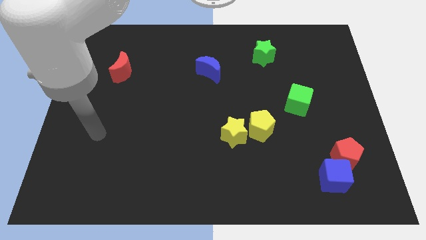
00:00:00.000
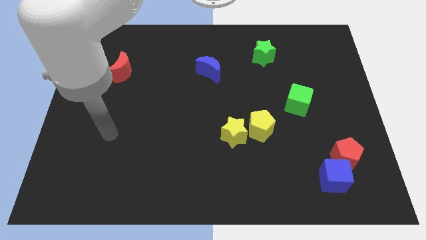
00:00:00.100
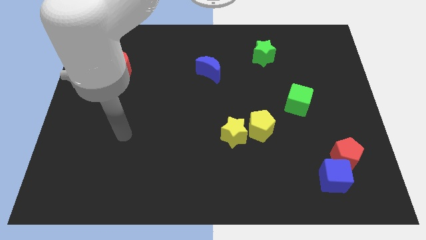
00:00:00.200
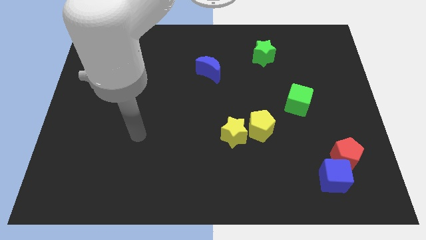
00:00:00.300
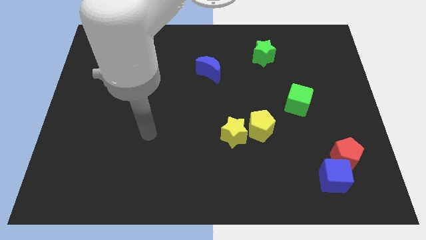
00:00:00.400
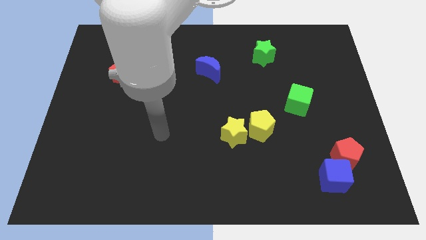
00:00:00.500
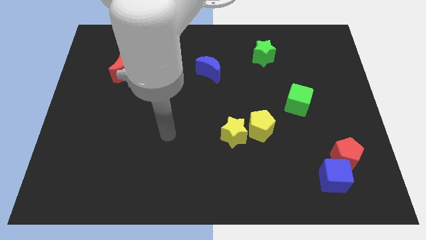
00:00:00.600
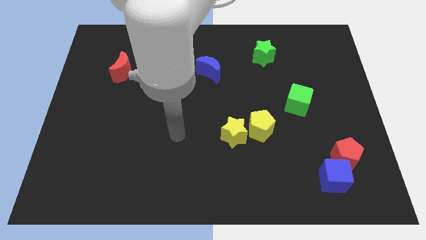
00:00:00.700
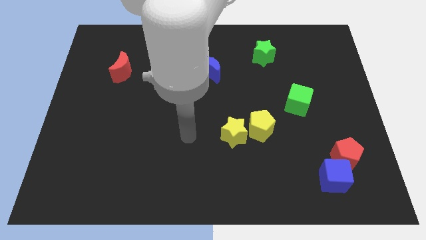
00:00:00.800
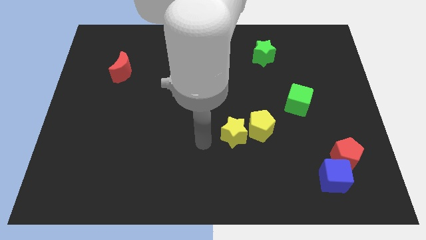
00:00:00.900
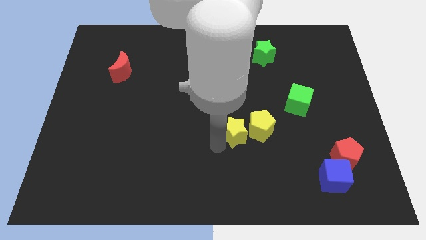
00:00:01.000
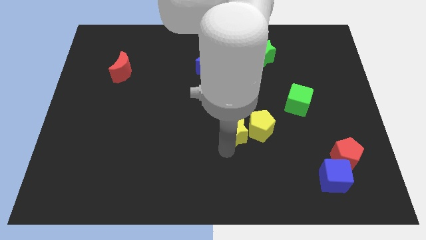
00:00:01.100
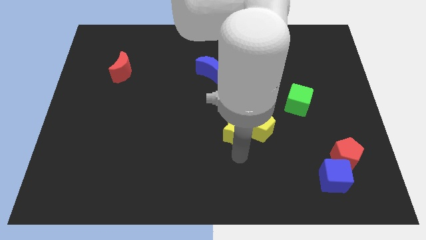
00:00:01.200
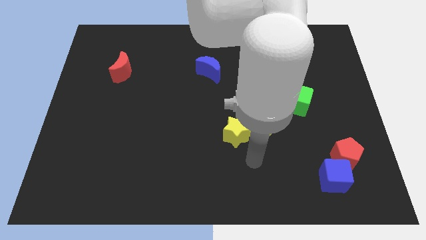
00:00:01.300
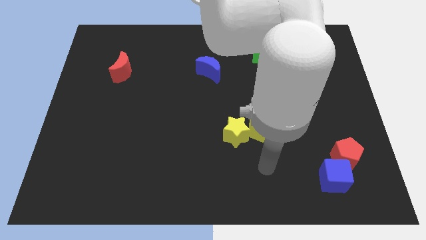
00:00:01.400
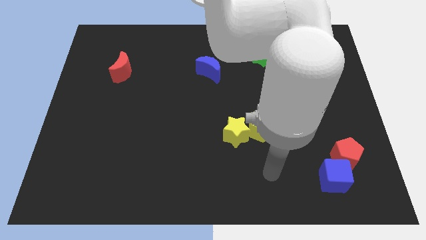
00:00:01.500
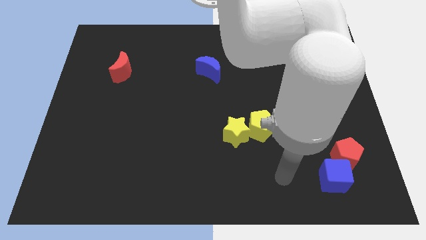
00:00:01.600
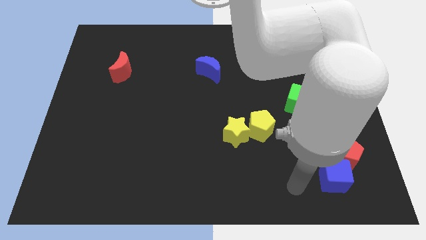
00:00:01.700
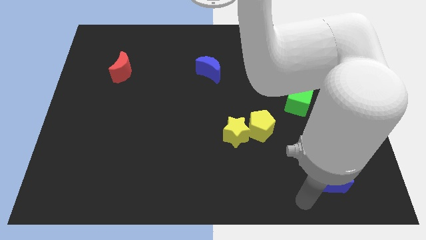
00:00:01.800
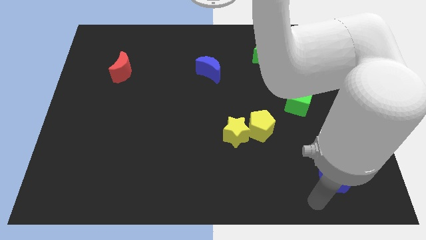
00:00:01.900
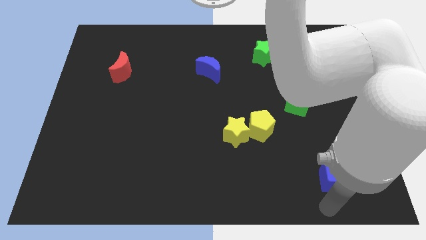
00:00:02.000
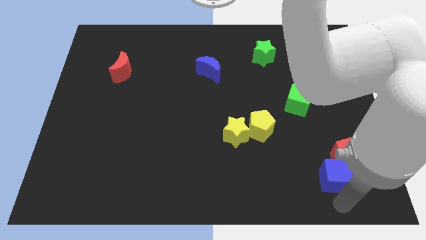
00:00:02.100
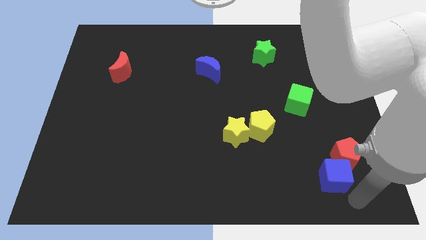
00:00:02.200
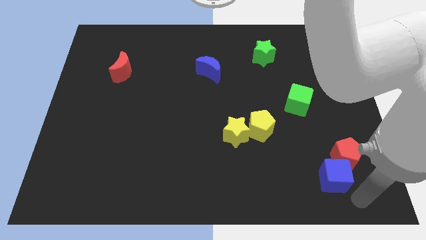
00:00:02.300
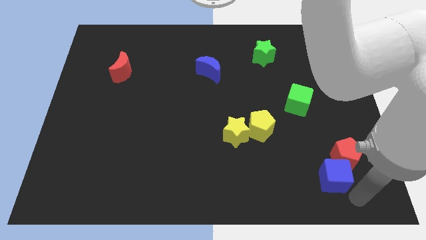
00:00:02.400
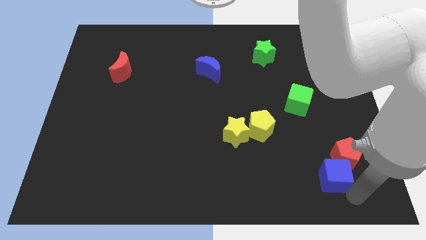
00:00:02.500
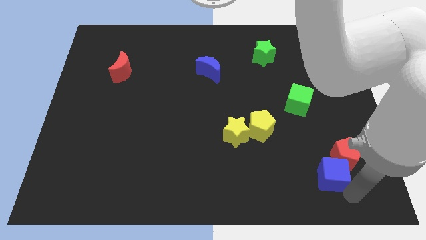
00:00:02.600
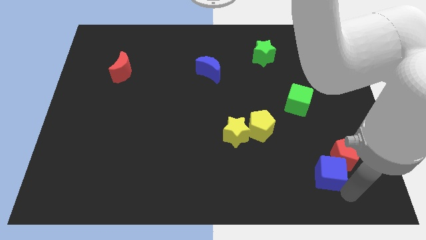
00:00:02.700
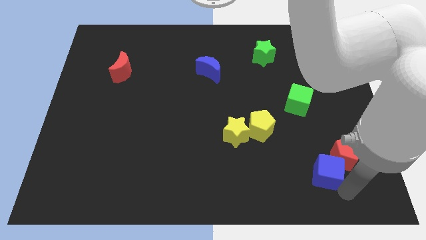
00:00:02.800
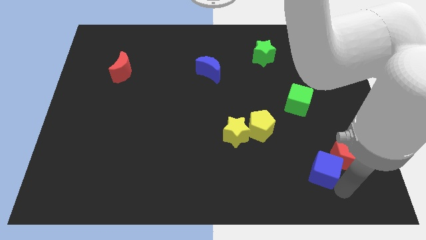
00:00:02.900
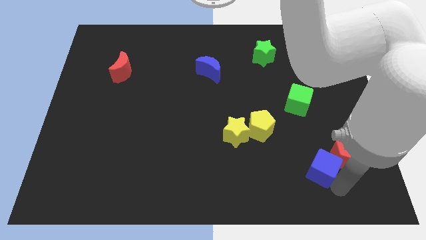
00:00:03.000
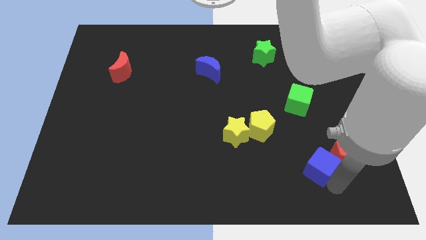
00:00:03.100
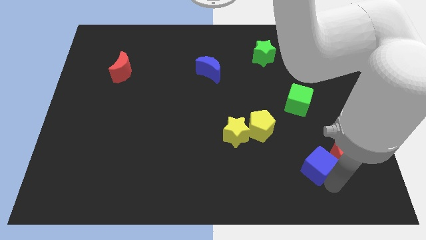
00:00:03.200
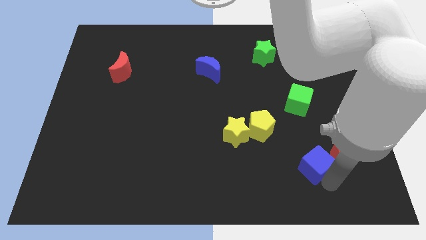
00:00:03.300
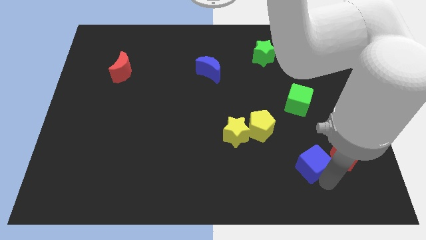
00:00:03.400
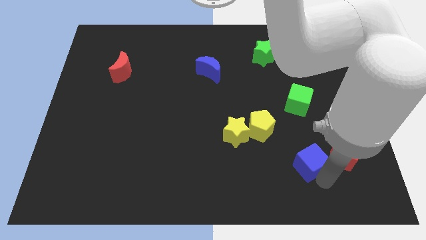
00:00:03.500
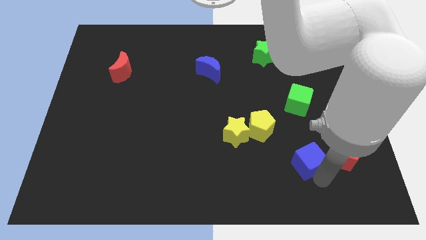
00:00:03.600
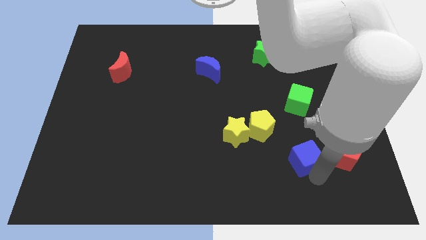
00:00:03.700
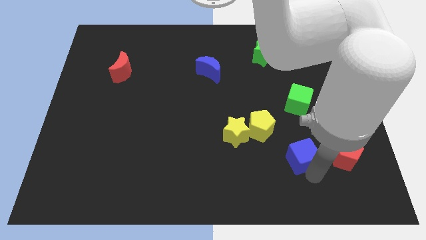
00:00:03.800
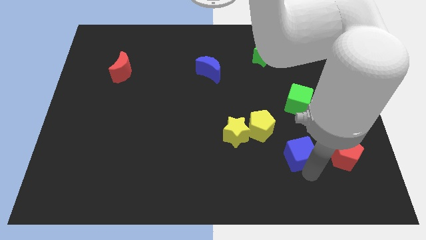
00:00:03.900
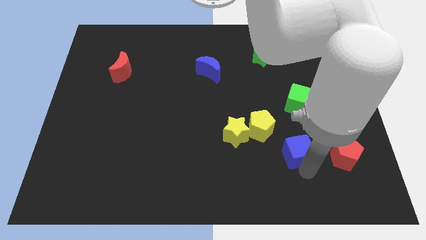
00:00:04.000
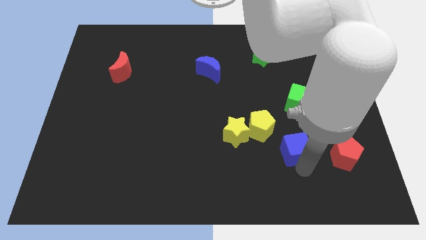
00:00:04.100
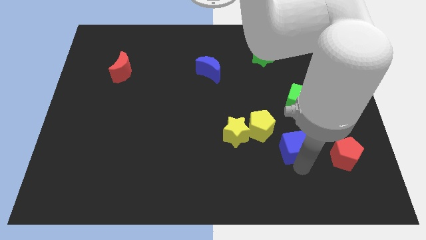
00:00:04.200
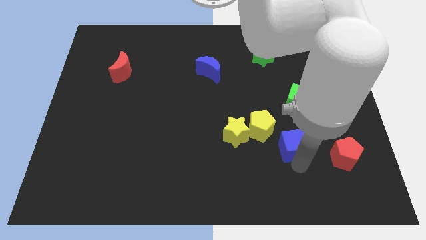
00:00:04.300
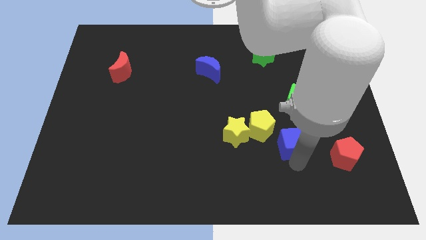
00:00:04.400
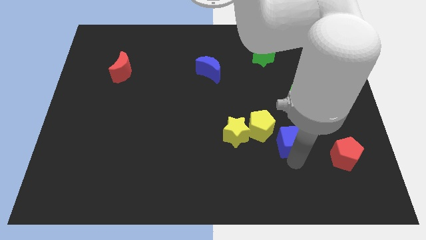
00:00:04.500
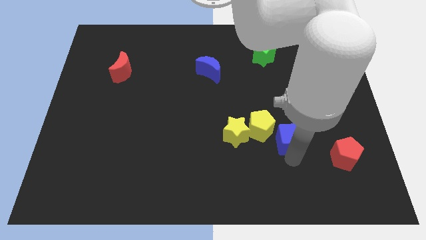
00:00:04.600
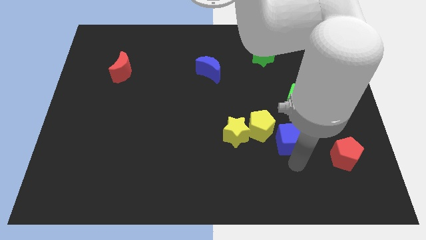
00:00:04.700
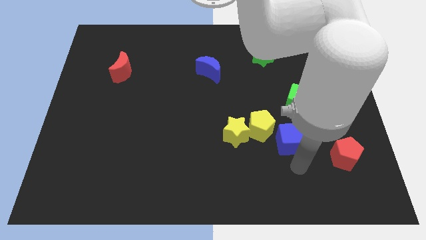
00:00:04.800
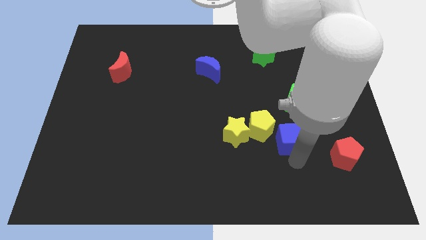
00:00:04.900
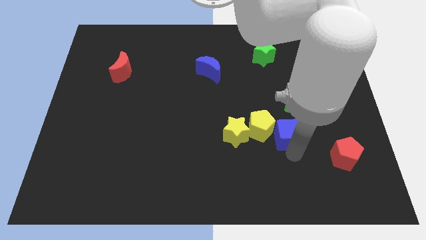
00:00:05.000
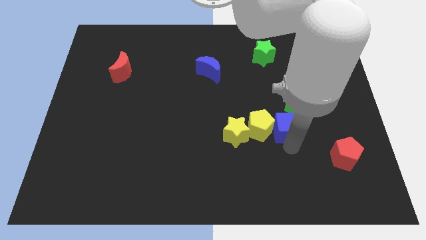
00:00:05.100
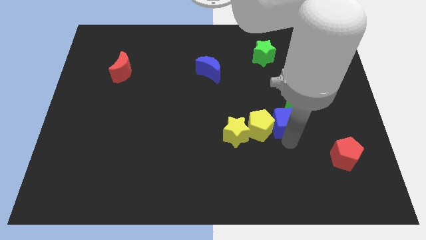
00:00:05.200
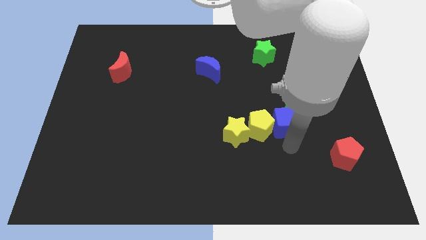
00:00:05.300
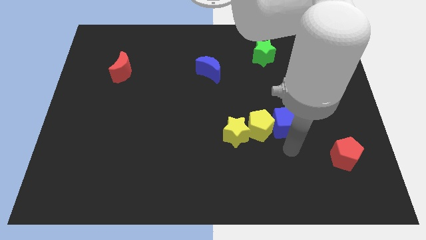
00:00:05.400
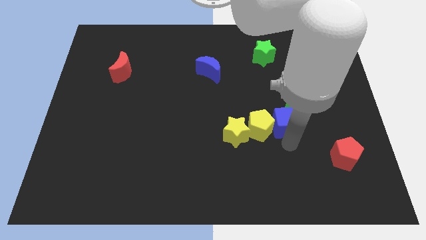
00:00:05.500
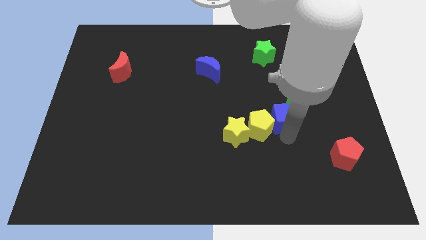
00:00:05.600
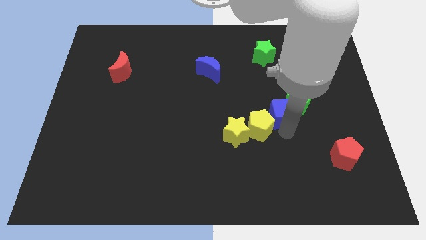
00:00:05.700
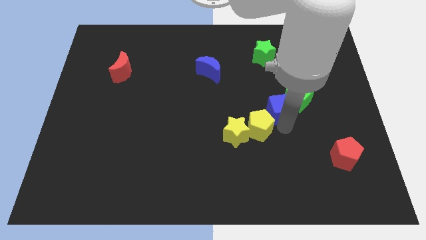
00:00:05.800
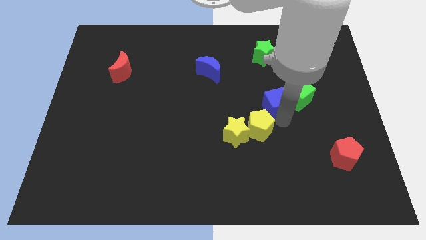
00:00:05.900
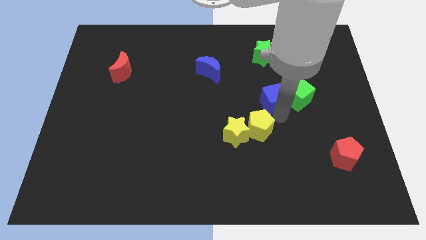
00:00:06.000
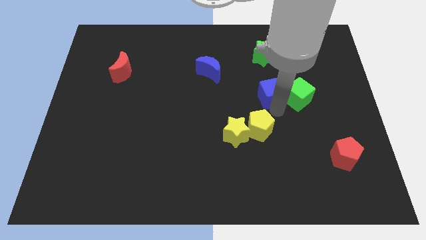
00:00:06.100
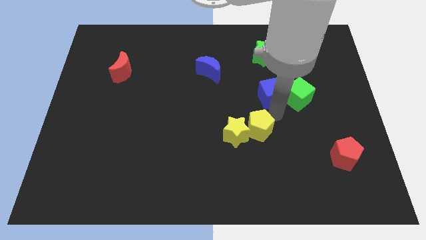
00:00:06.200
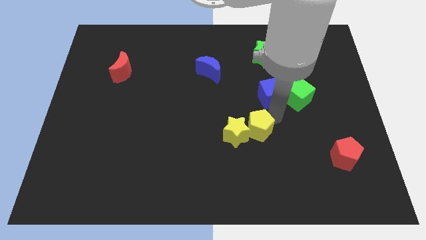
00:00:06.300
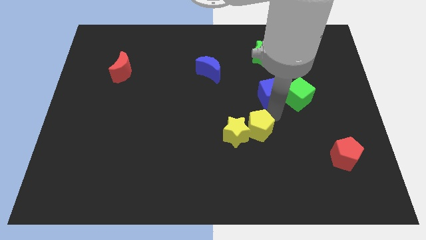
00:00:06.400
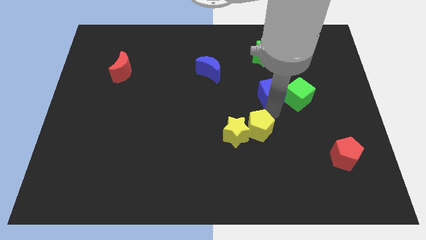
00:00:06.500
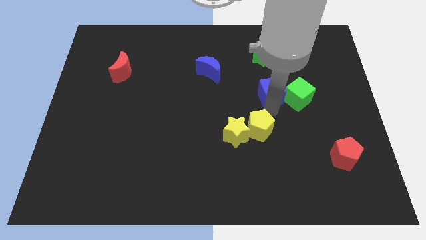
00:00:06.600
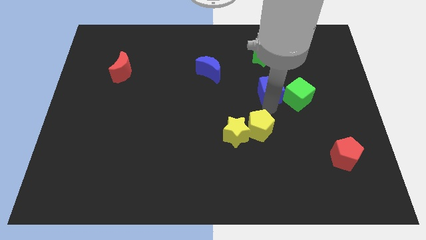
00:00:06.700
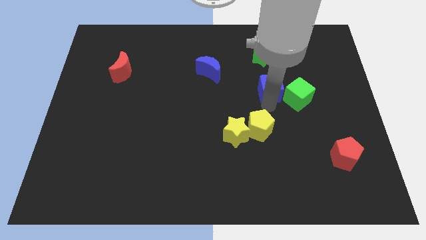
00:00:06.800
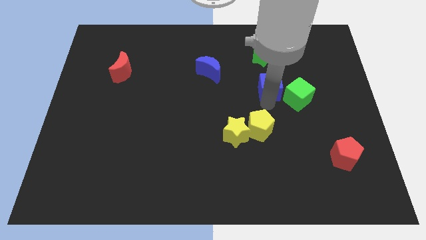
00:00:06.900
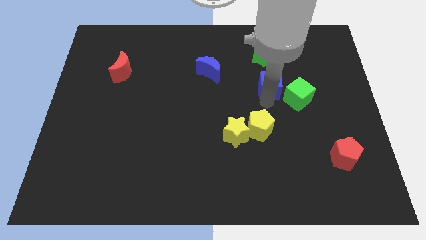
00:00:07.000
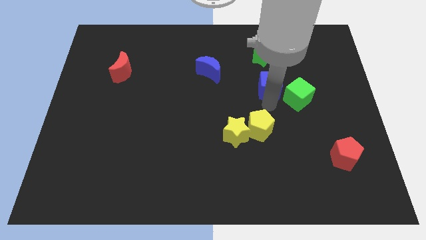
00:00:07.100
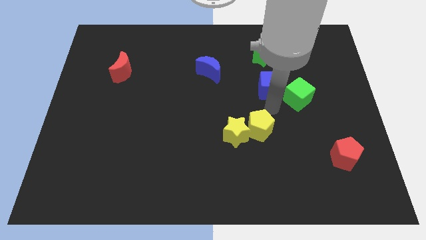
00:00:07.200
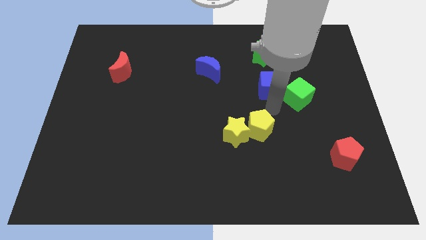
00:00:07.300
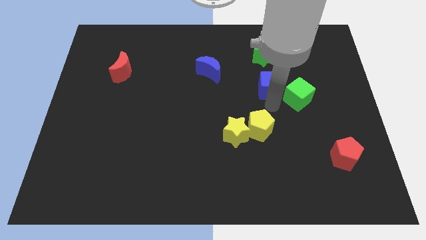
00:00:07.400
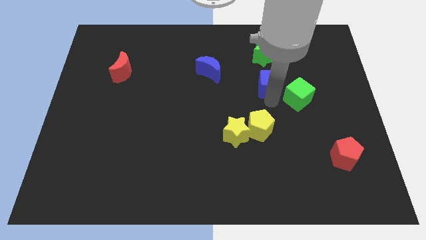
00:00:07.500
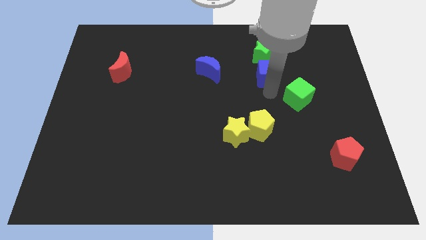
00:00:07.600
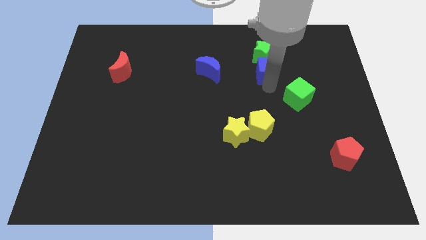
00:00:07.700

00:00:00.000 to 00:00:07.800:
put the blue cube towards the green star
